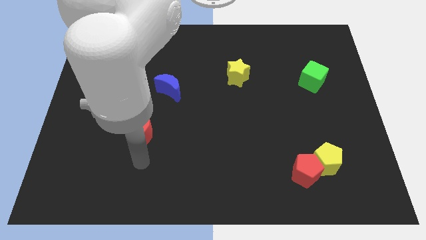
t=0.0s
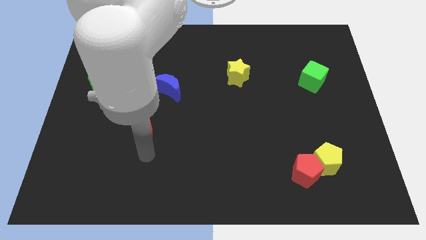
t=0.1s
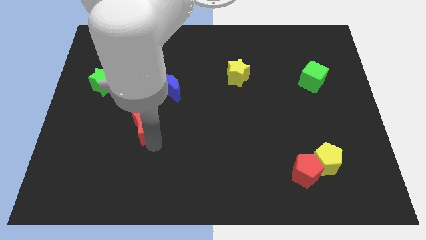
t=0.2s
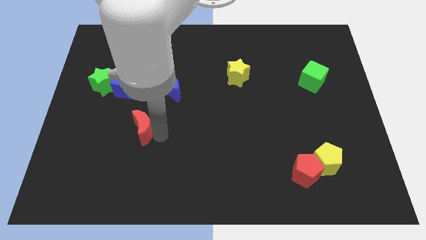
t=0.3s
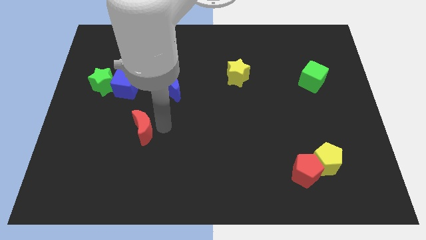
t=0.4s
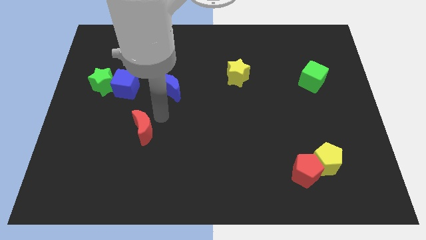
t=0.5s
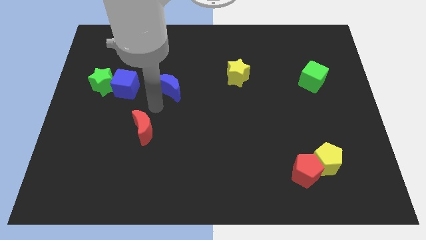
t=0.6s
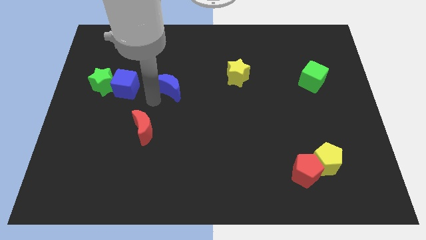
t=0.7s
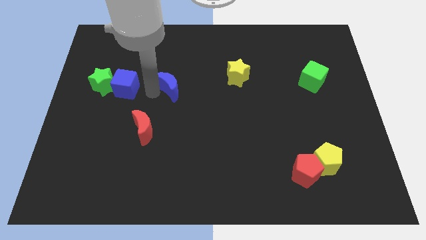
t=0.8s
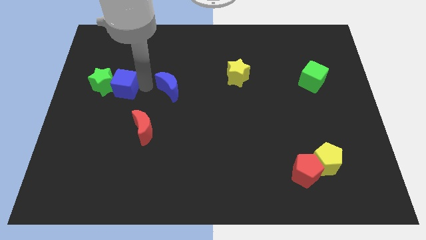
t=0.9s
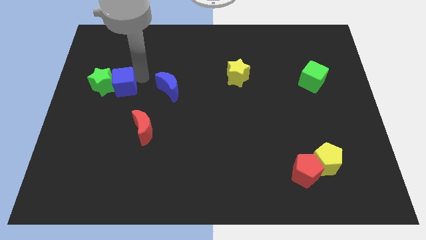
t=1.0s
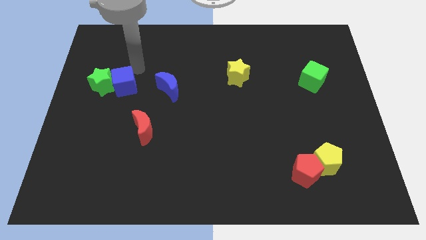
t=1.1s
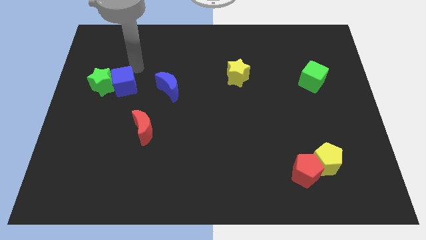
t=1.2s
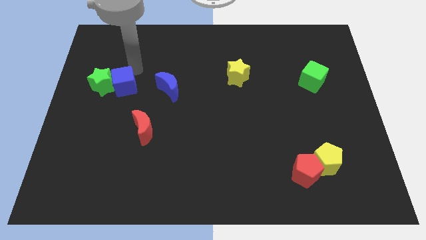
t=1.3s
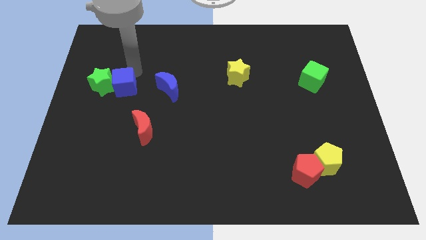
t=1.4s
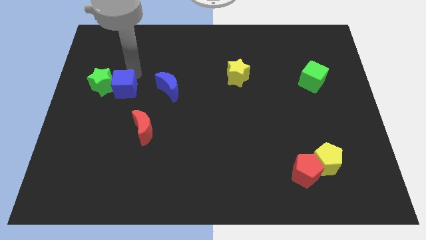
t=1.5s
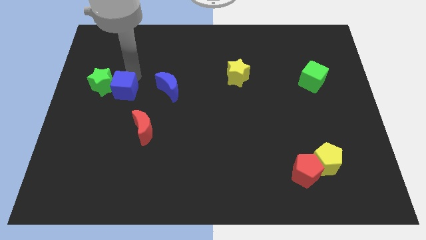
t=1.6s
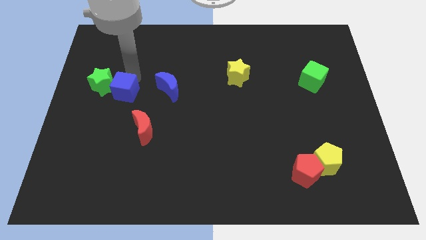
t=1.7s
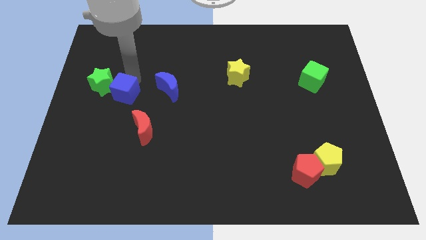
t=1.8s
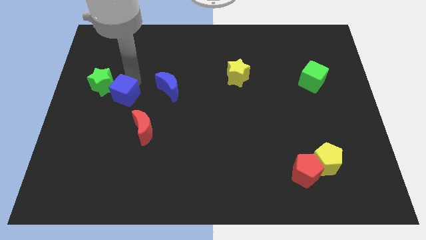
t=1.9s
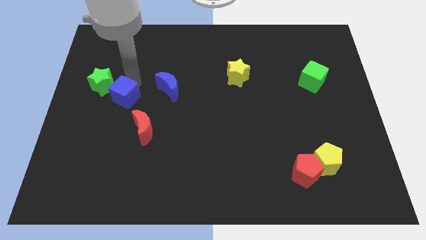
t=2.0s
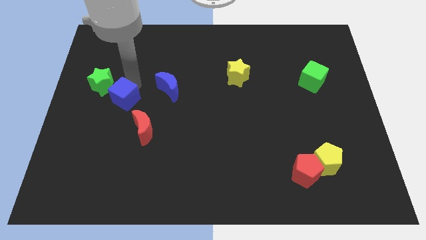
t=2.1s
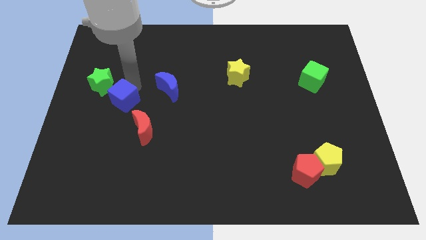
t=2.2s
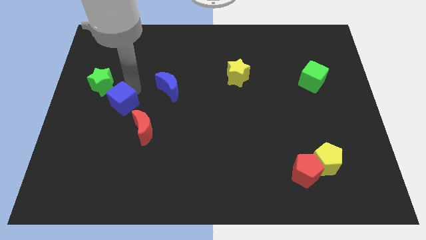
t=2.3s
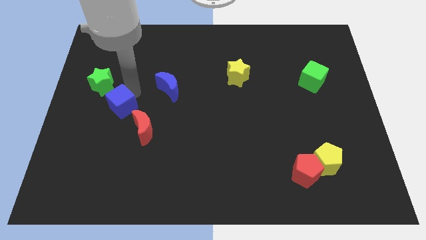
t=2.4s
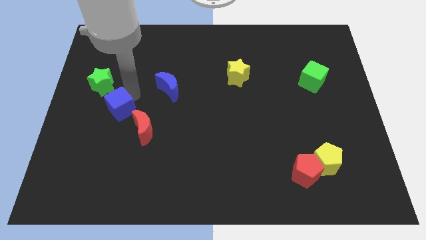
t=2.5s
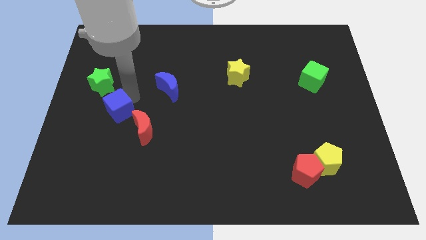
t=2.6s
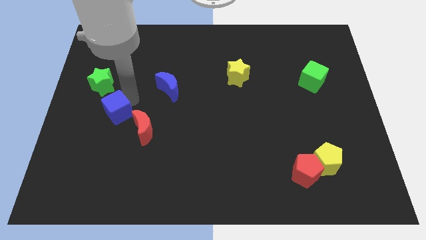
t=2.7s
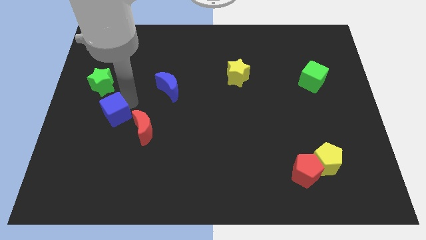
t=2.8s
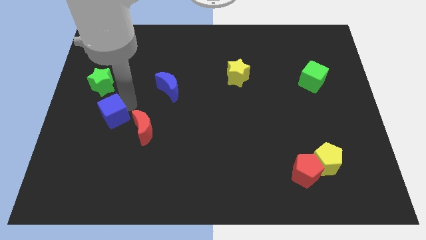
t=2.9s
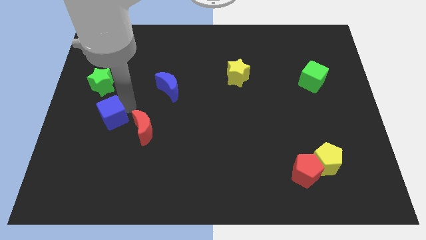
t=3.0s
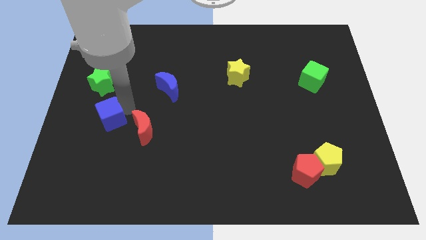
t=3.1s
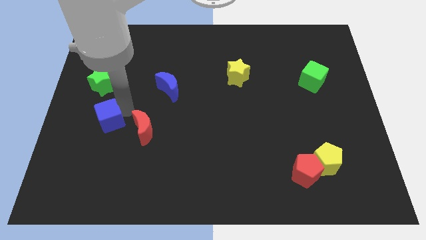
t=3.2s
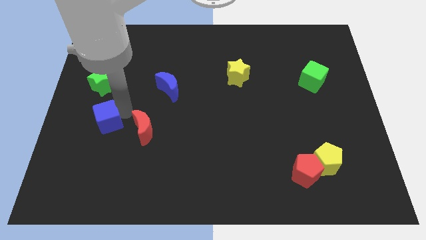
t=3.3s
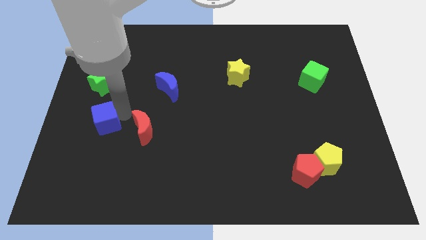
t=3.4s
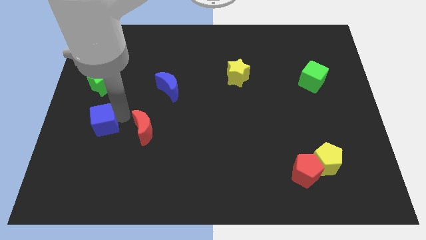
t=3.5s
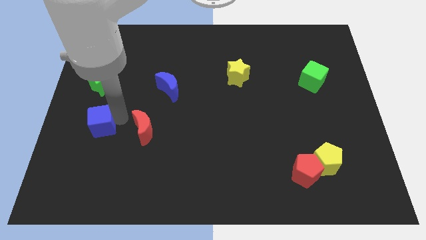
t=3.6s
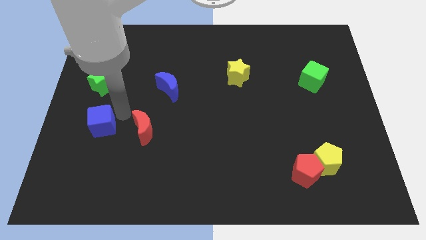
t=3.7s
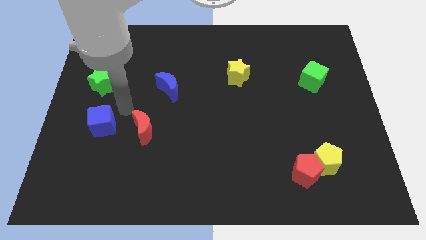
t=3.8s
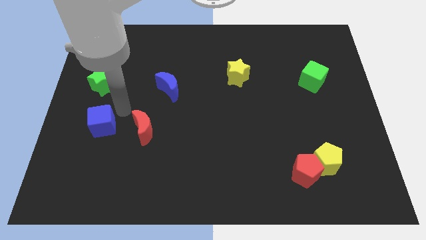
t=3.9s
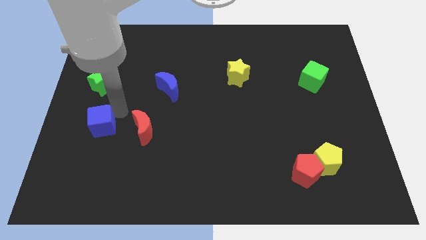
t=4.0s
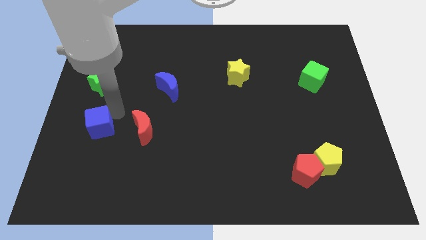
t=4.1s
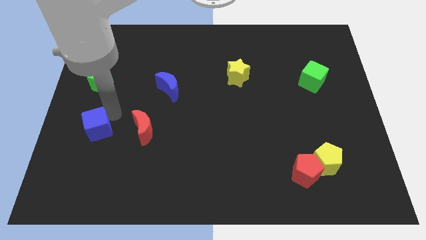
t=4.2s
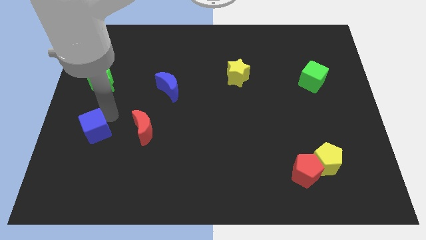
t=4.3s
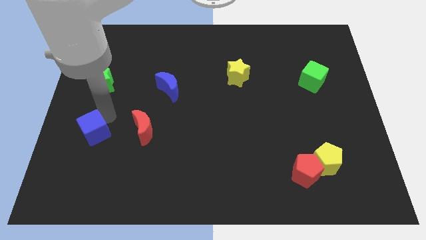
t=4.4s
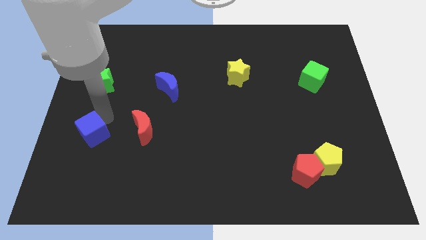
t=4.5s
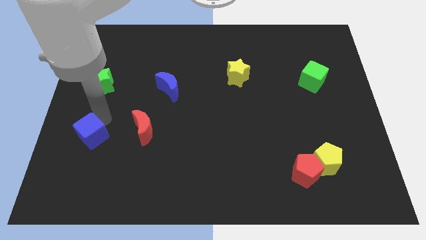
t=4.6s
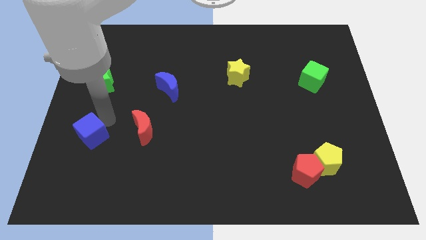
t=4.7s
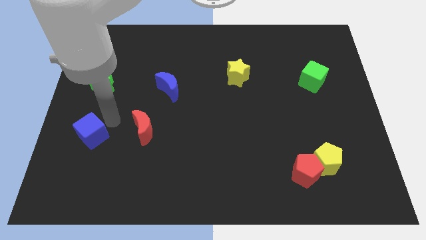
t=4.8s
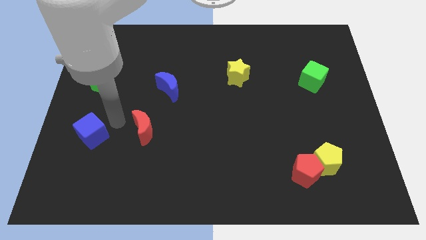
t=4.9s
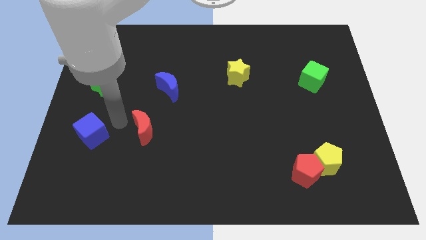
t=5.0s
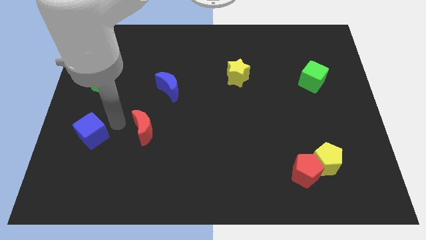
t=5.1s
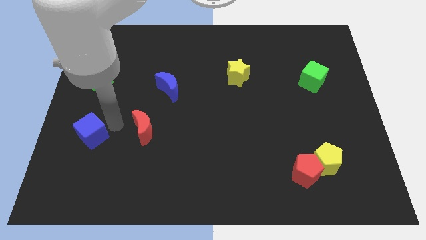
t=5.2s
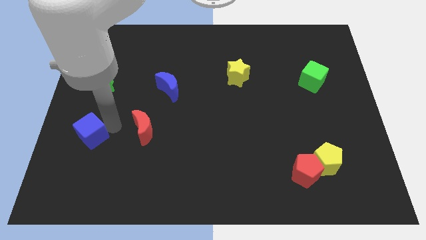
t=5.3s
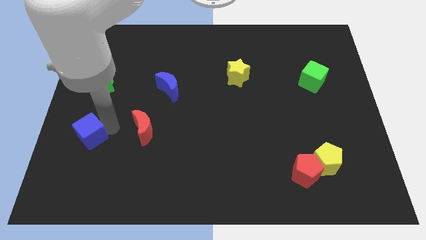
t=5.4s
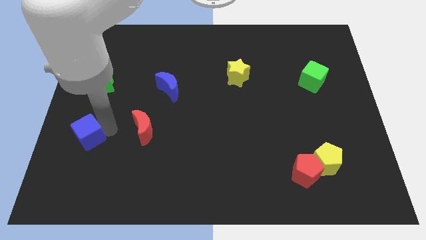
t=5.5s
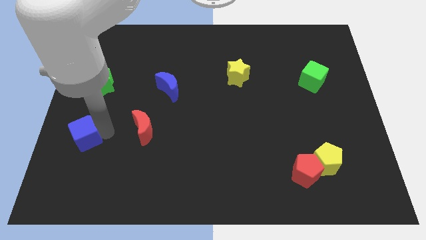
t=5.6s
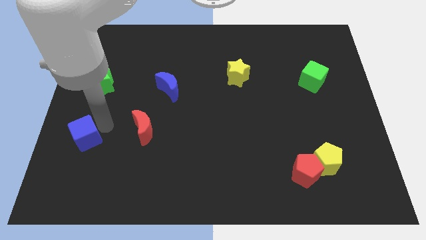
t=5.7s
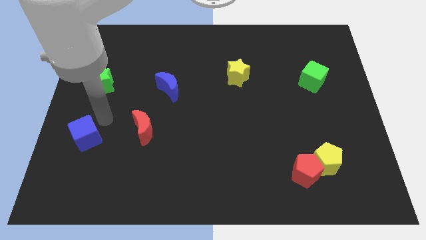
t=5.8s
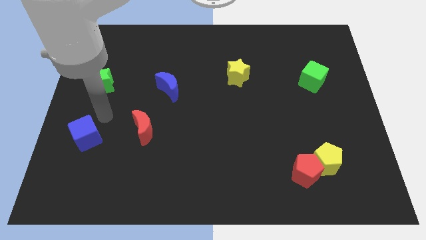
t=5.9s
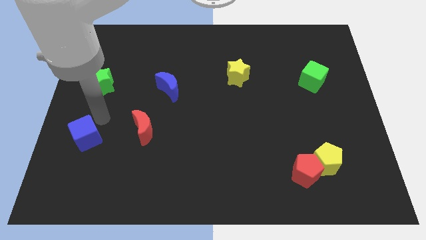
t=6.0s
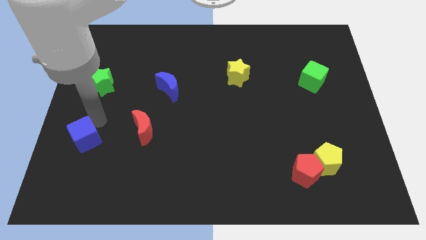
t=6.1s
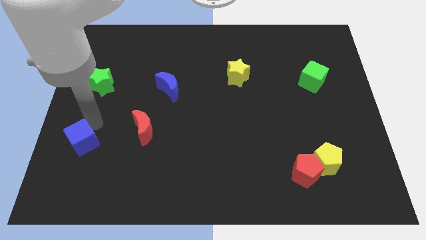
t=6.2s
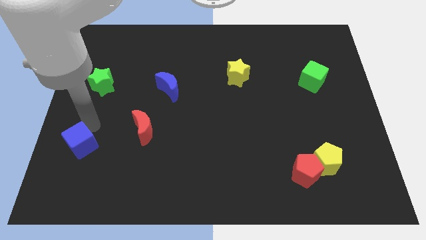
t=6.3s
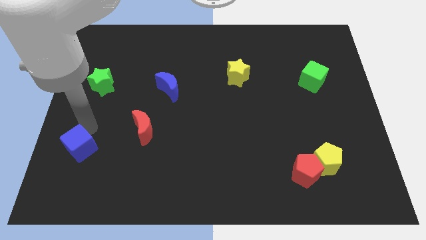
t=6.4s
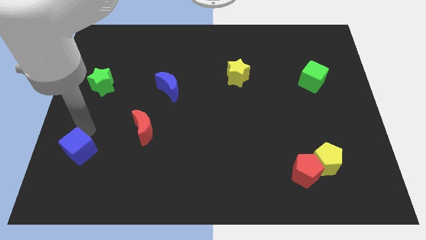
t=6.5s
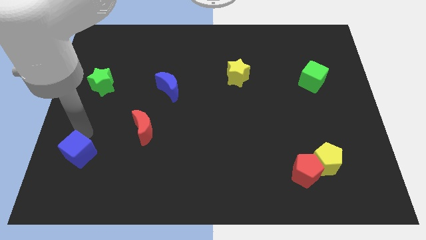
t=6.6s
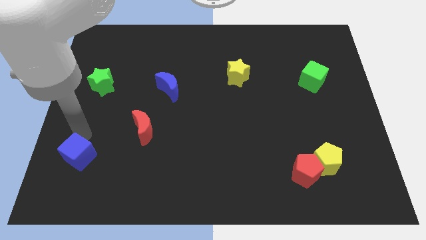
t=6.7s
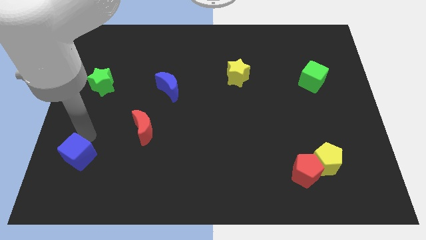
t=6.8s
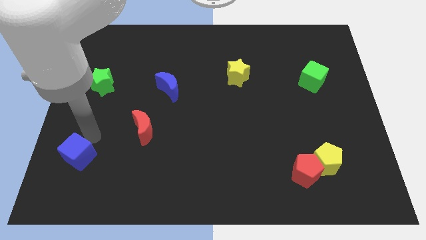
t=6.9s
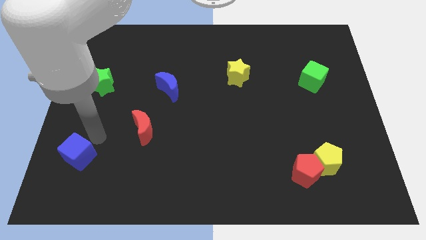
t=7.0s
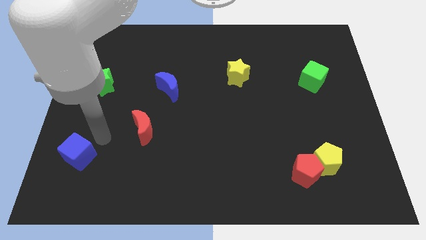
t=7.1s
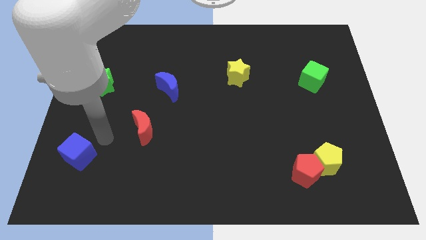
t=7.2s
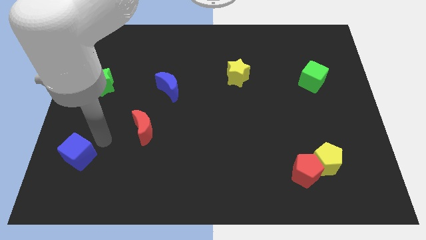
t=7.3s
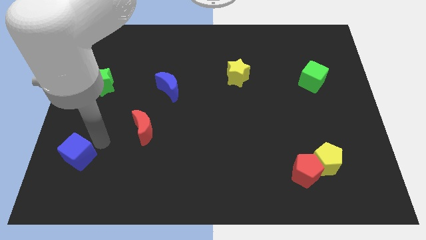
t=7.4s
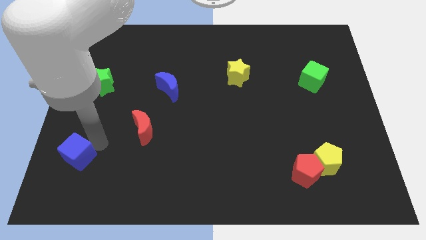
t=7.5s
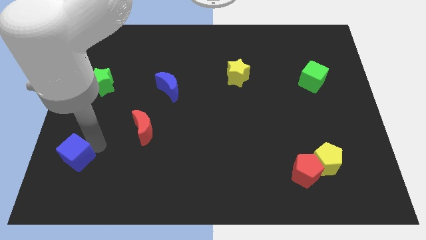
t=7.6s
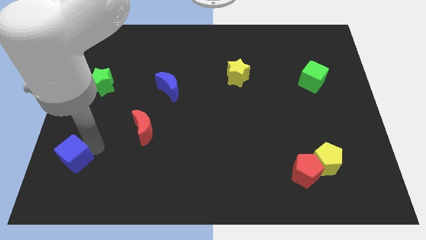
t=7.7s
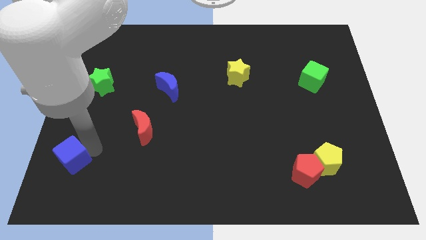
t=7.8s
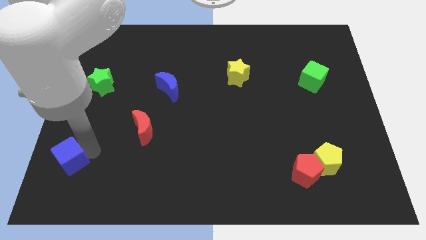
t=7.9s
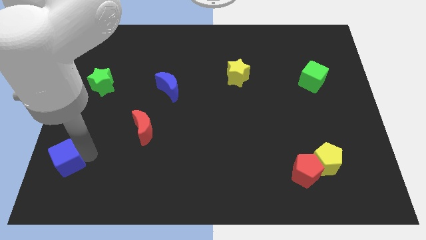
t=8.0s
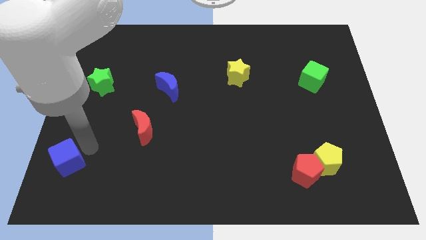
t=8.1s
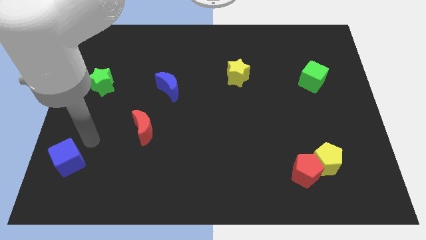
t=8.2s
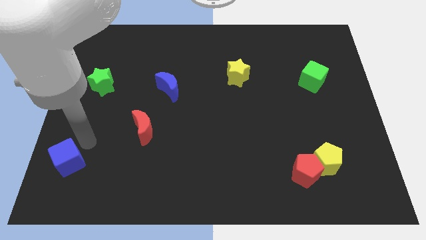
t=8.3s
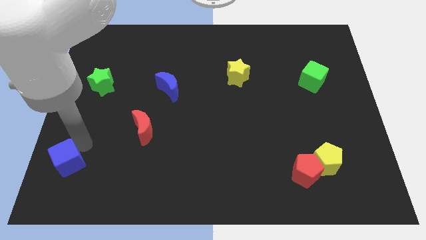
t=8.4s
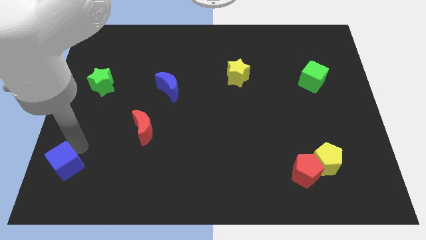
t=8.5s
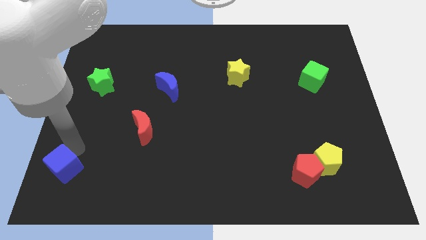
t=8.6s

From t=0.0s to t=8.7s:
push the blue cube to the lower left corner
